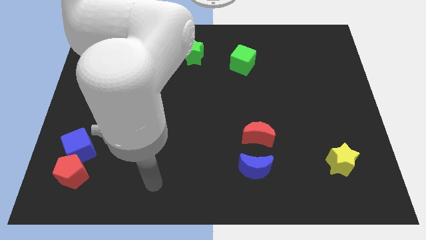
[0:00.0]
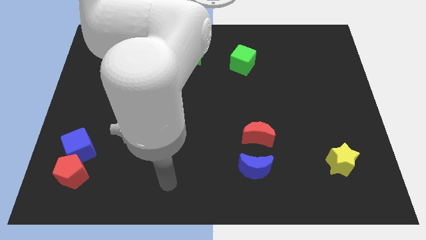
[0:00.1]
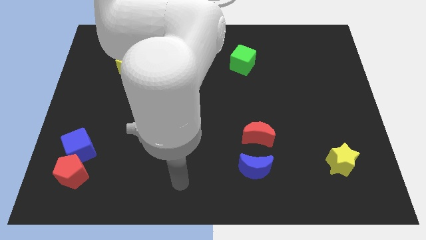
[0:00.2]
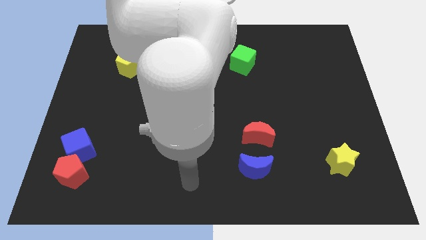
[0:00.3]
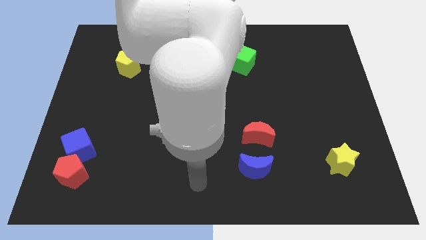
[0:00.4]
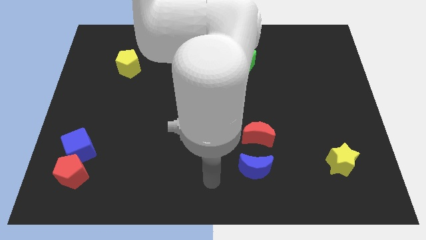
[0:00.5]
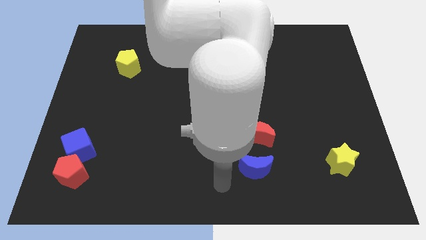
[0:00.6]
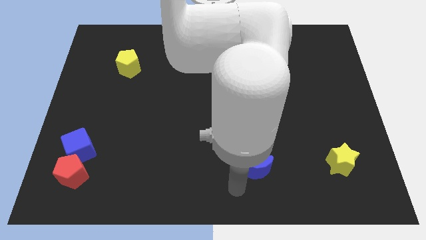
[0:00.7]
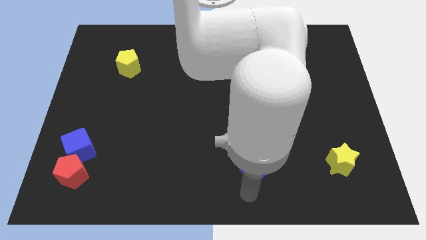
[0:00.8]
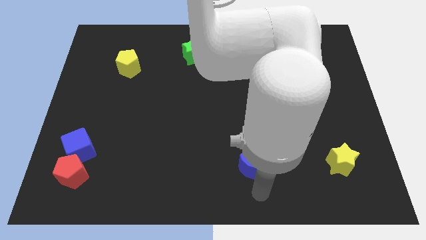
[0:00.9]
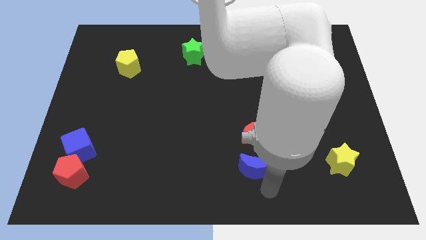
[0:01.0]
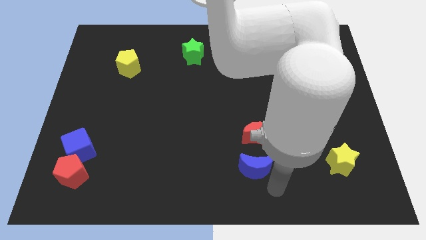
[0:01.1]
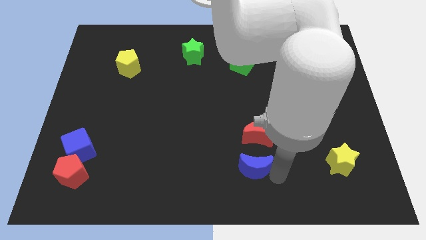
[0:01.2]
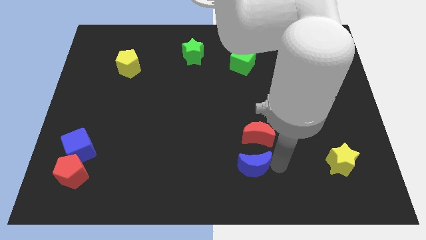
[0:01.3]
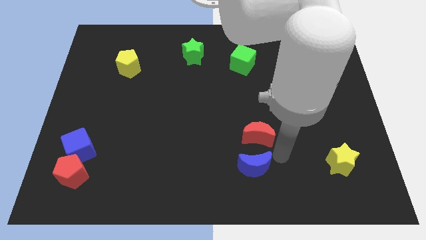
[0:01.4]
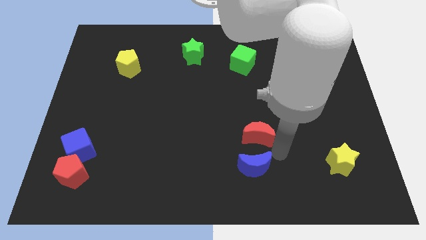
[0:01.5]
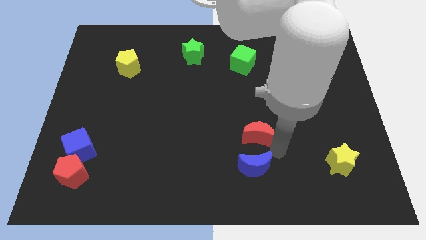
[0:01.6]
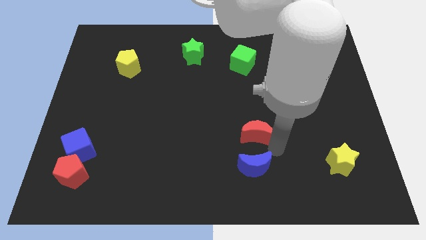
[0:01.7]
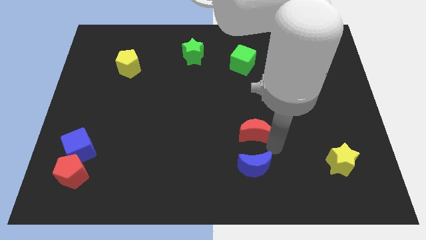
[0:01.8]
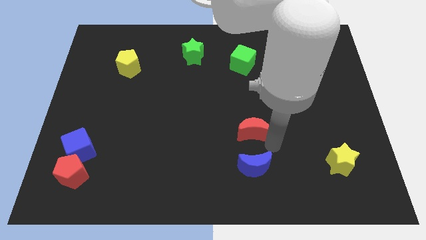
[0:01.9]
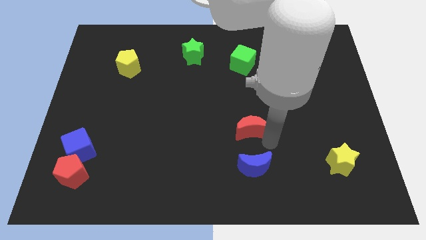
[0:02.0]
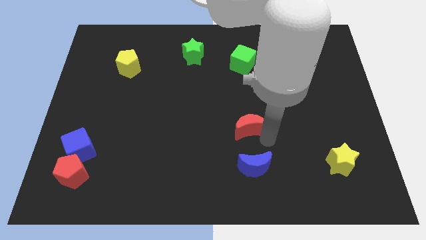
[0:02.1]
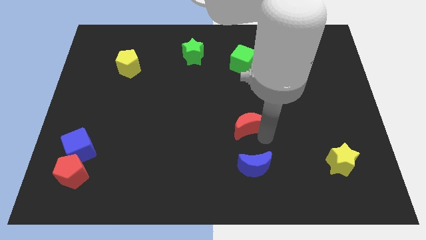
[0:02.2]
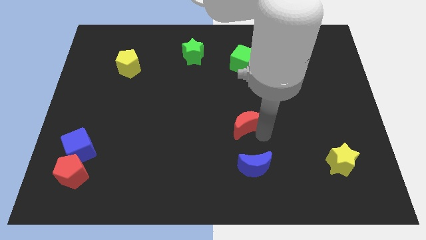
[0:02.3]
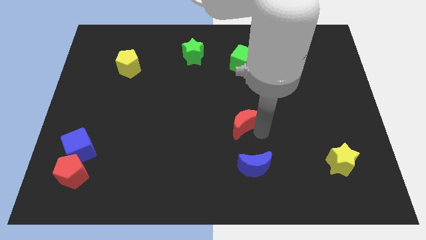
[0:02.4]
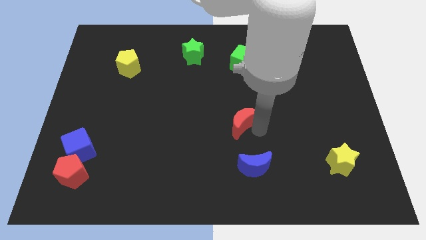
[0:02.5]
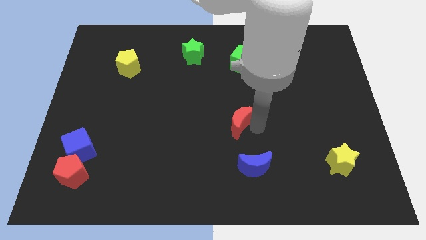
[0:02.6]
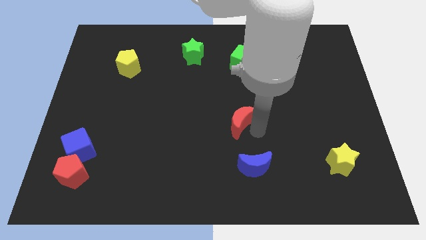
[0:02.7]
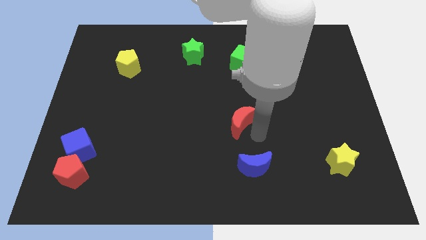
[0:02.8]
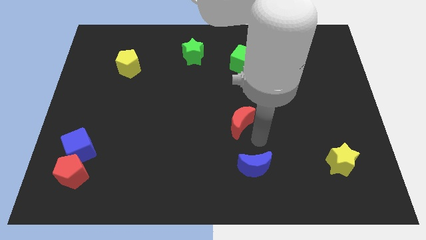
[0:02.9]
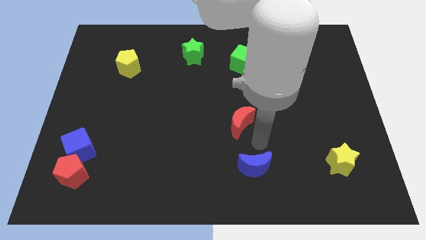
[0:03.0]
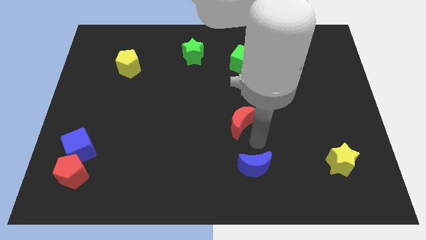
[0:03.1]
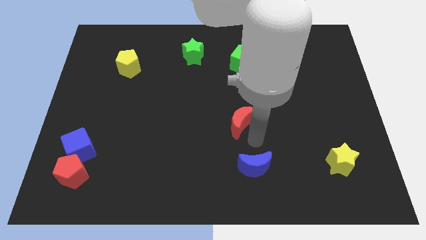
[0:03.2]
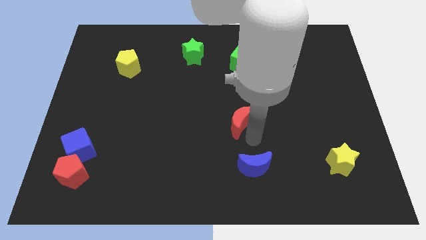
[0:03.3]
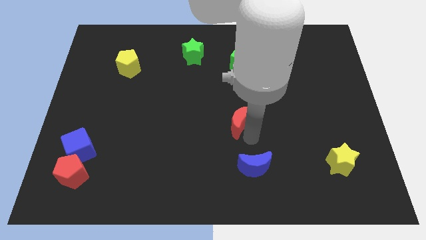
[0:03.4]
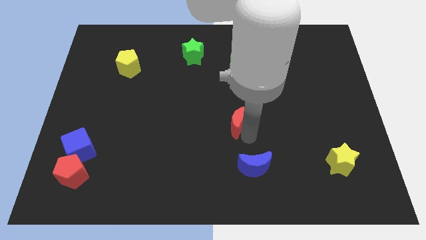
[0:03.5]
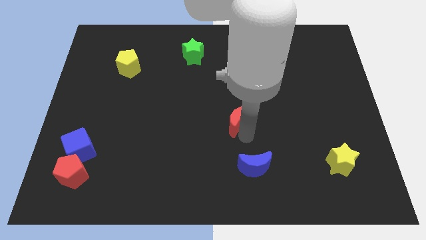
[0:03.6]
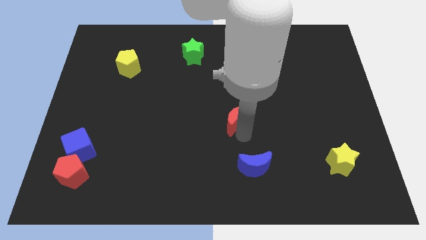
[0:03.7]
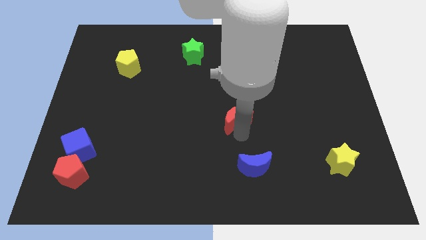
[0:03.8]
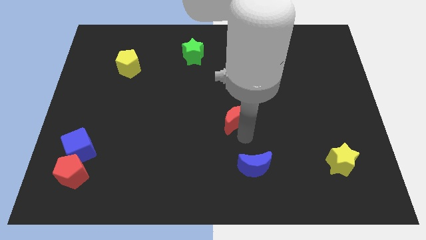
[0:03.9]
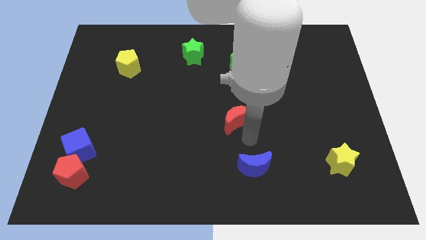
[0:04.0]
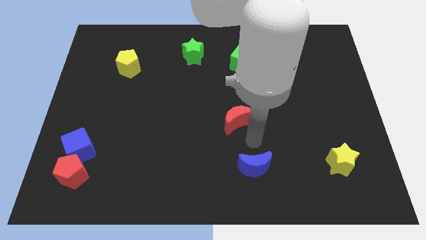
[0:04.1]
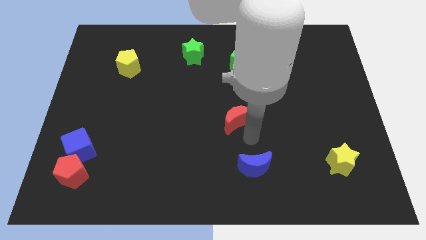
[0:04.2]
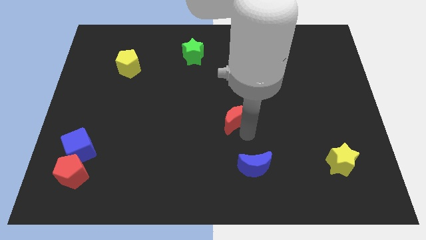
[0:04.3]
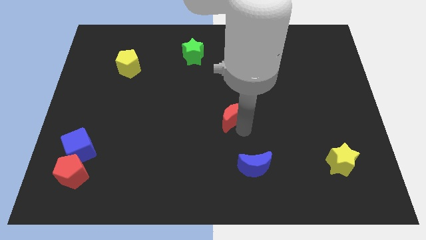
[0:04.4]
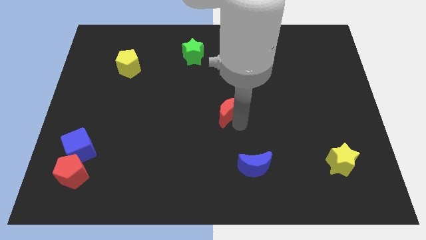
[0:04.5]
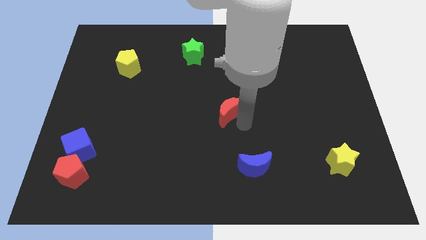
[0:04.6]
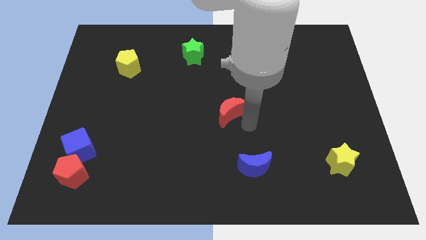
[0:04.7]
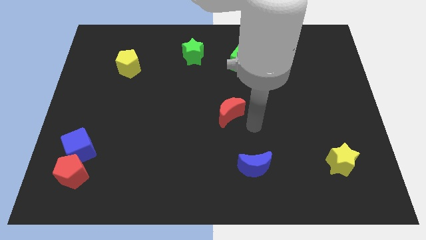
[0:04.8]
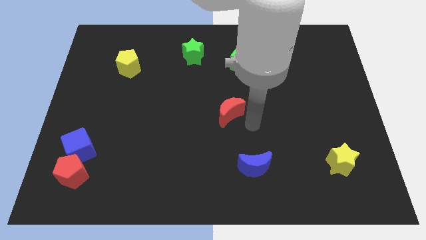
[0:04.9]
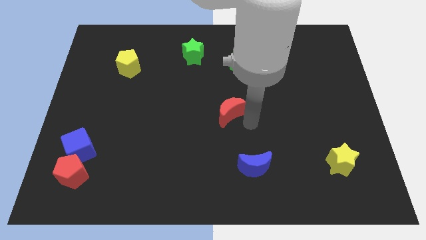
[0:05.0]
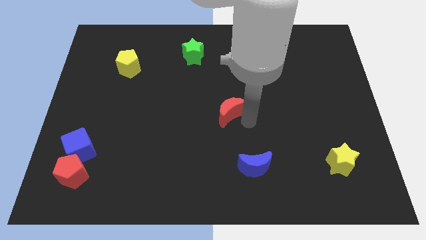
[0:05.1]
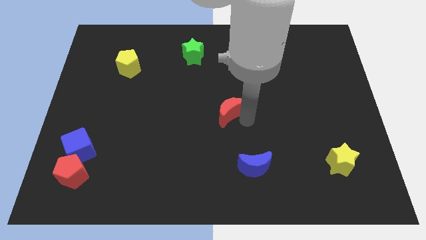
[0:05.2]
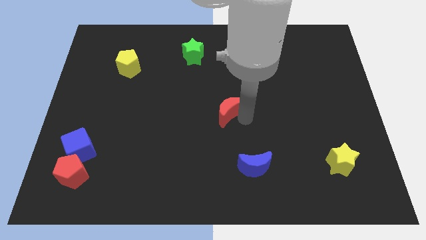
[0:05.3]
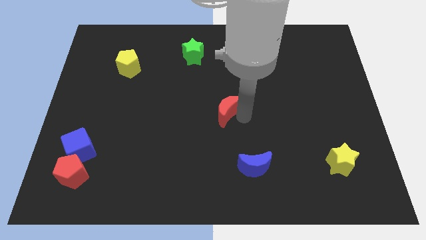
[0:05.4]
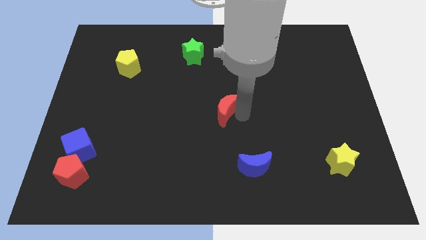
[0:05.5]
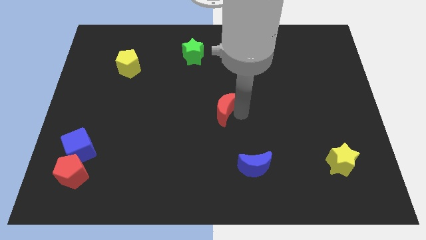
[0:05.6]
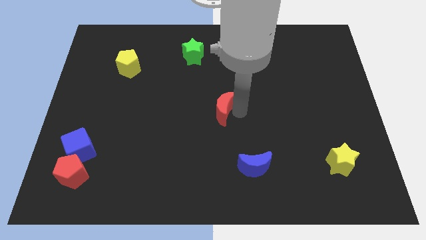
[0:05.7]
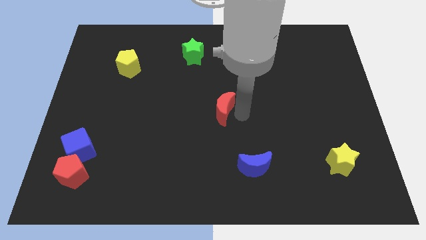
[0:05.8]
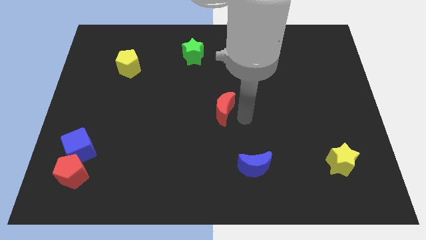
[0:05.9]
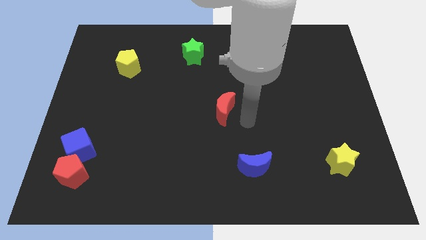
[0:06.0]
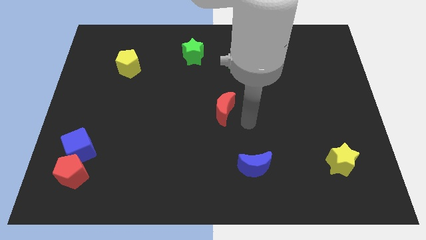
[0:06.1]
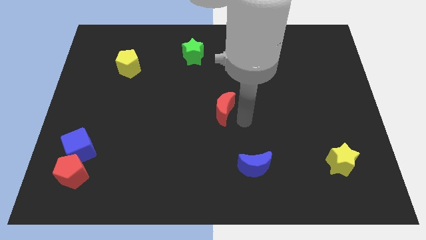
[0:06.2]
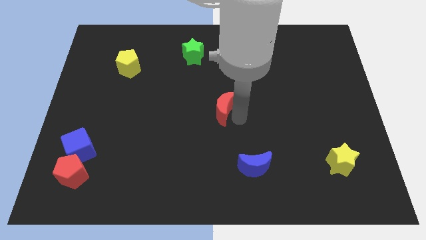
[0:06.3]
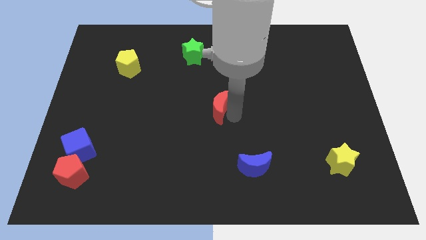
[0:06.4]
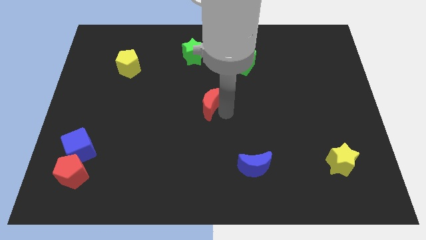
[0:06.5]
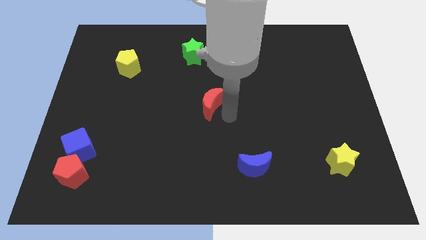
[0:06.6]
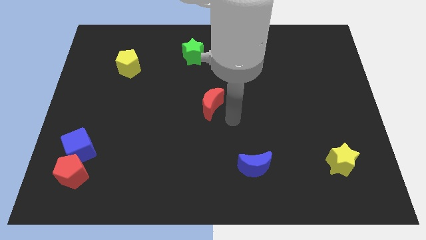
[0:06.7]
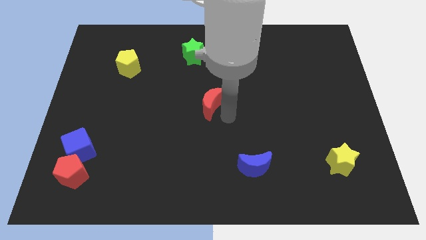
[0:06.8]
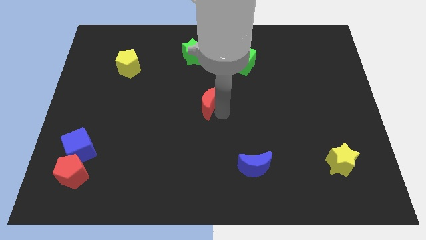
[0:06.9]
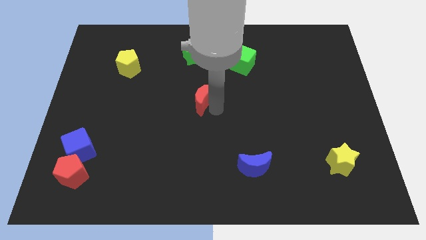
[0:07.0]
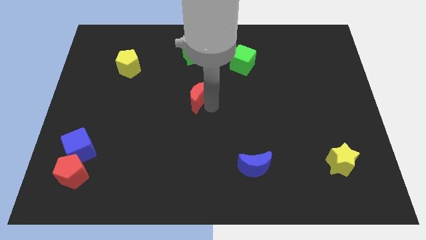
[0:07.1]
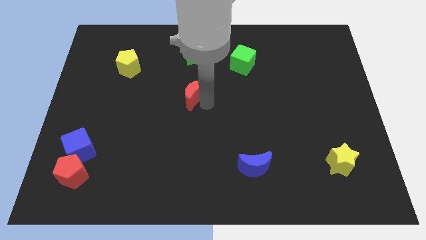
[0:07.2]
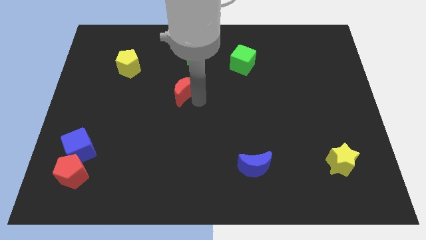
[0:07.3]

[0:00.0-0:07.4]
slide the red moon up and left

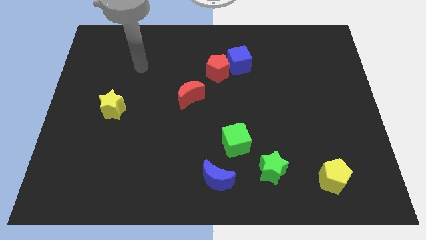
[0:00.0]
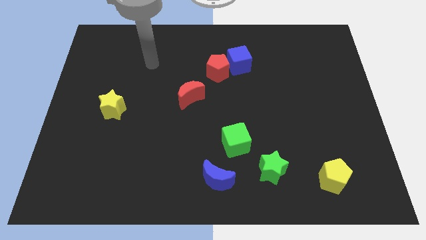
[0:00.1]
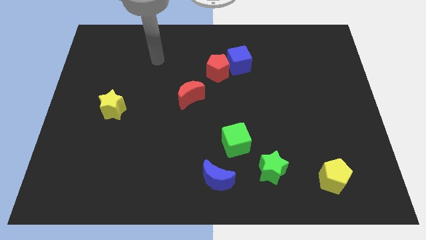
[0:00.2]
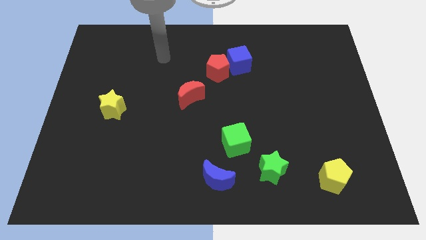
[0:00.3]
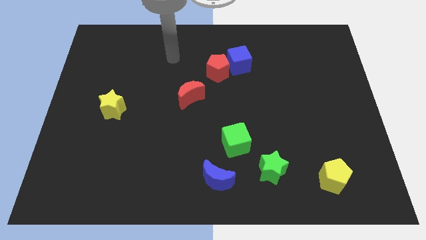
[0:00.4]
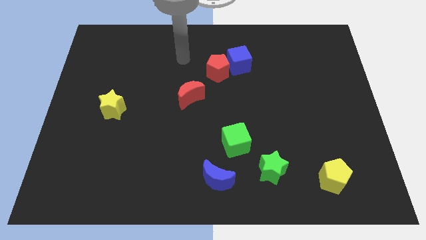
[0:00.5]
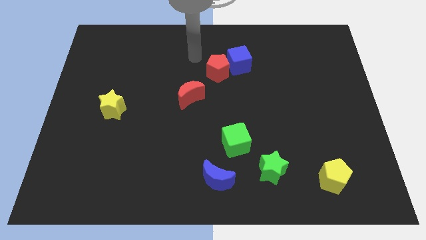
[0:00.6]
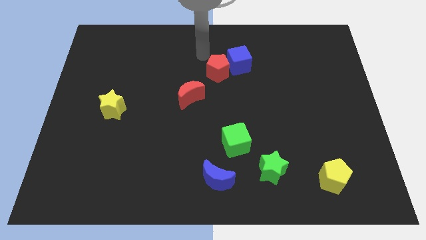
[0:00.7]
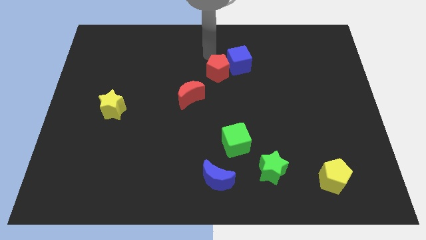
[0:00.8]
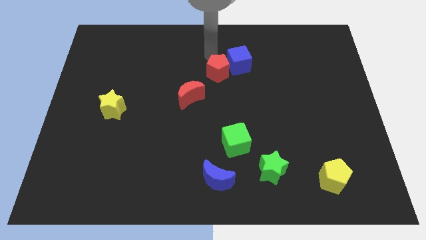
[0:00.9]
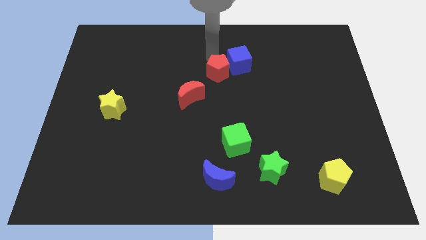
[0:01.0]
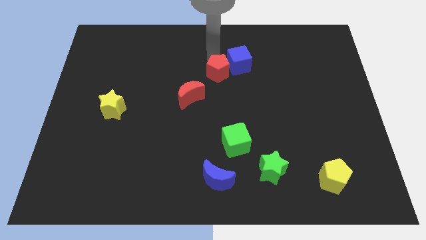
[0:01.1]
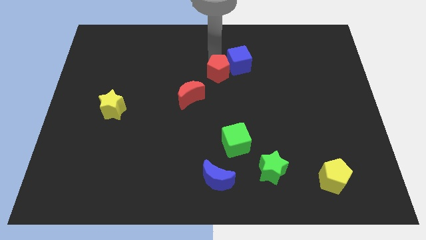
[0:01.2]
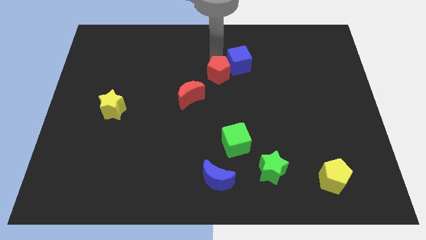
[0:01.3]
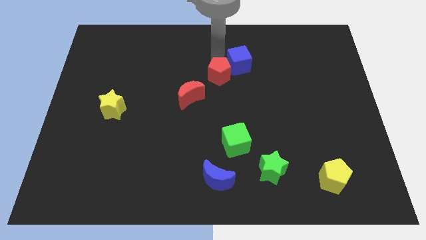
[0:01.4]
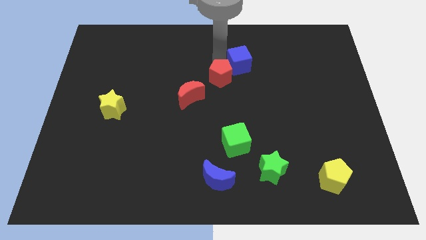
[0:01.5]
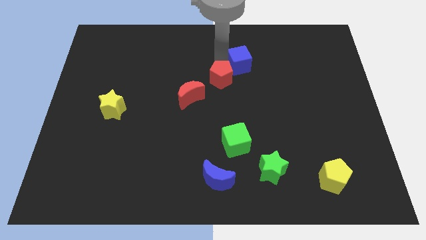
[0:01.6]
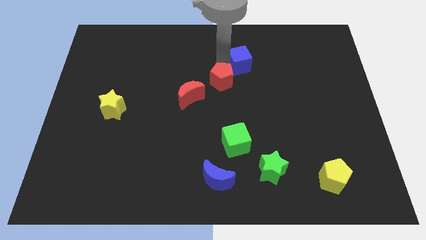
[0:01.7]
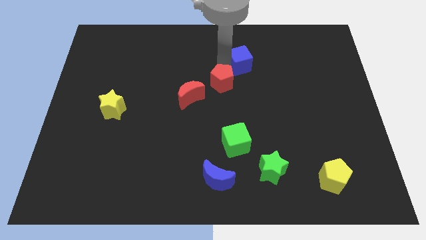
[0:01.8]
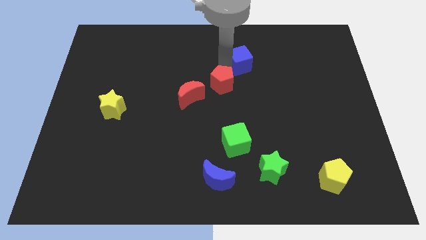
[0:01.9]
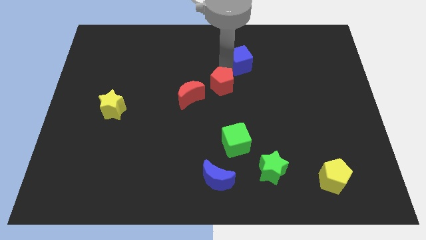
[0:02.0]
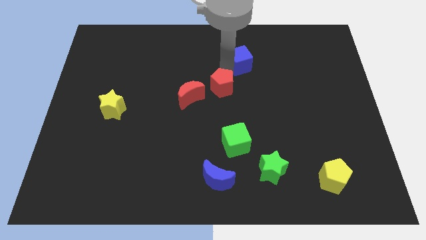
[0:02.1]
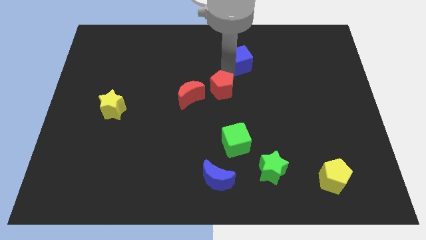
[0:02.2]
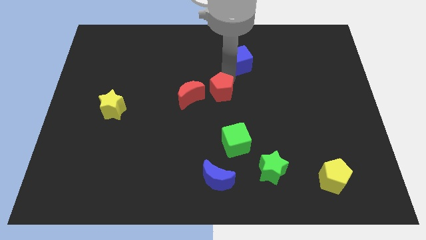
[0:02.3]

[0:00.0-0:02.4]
slightly move the red pentagon downwards
